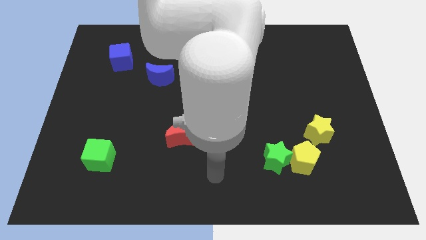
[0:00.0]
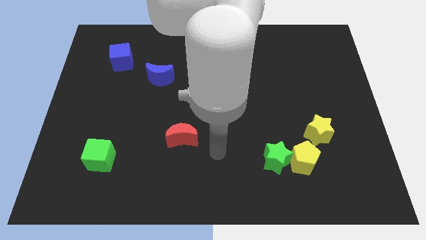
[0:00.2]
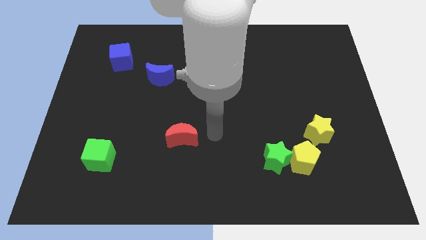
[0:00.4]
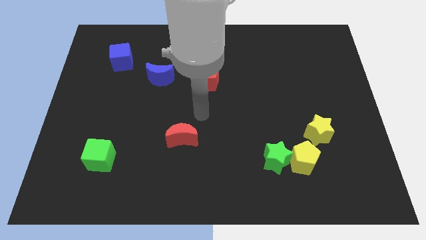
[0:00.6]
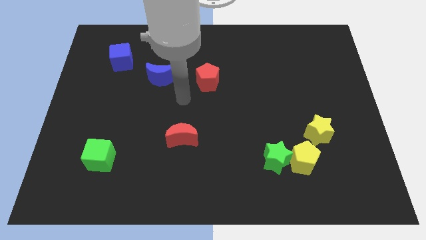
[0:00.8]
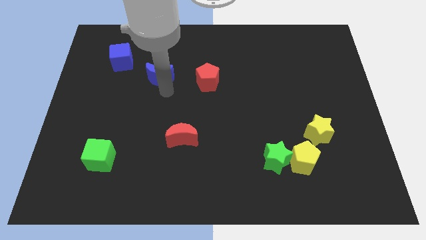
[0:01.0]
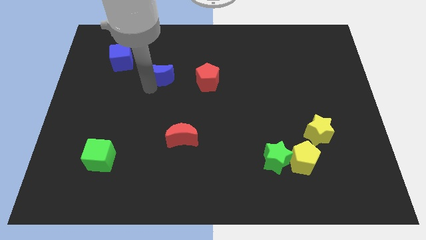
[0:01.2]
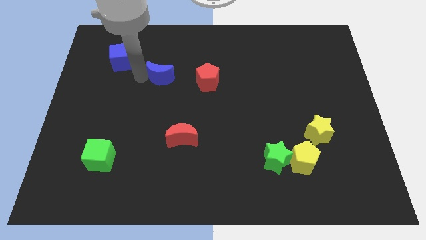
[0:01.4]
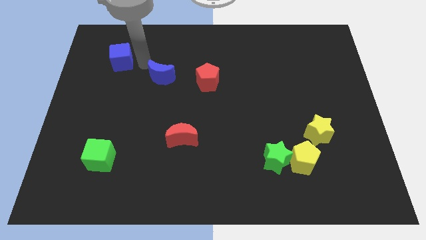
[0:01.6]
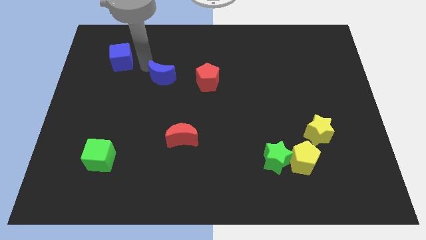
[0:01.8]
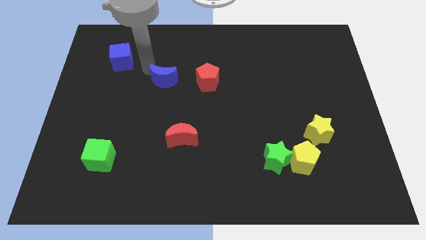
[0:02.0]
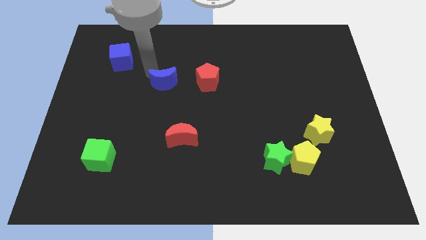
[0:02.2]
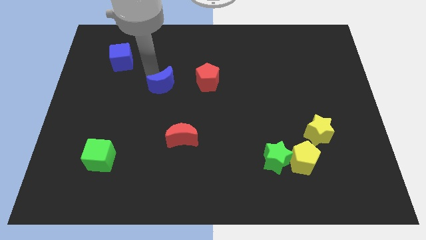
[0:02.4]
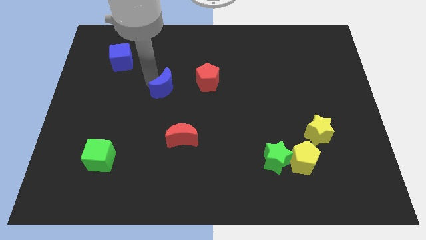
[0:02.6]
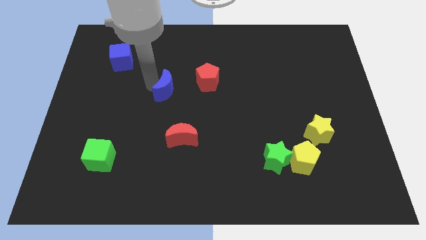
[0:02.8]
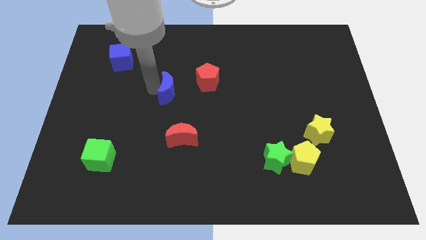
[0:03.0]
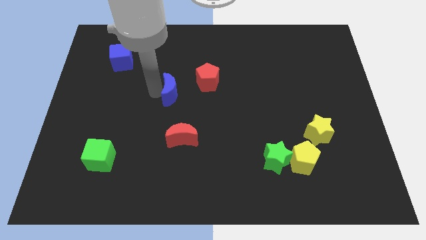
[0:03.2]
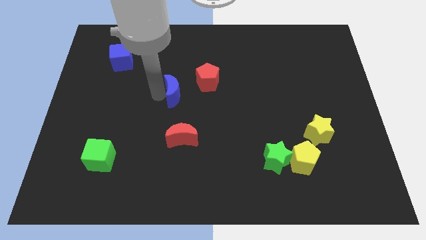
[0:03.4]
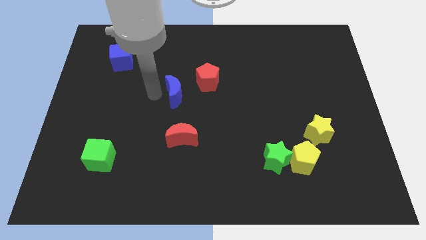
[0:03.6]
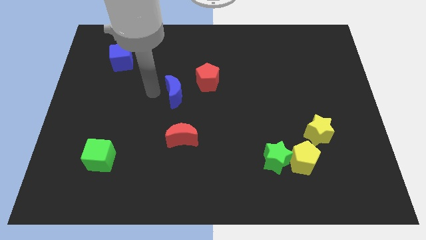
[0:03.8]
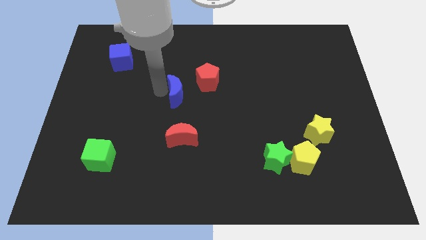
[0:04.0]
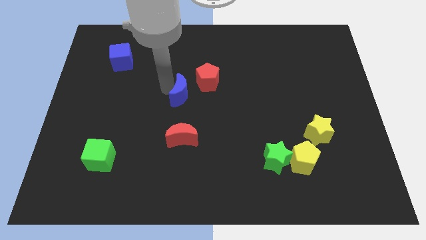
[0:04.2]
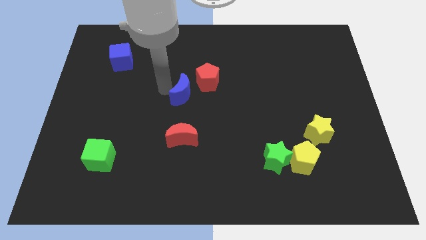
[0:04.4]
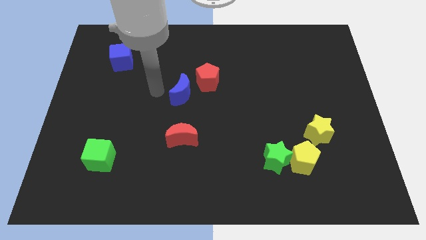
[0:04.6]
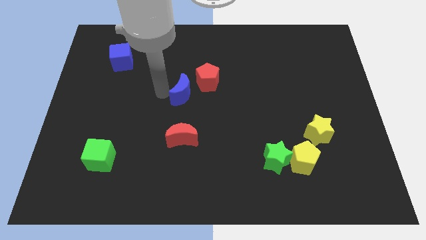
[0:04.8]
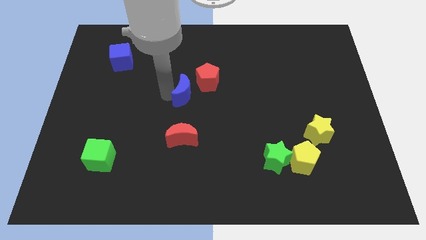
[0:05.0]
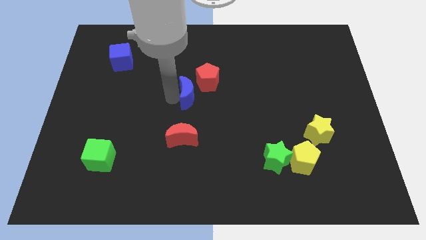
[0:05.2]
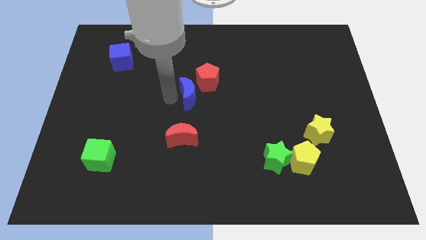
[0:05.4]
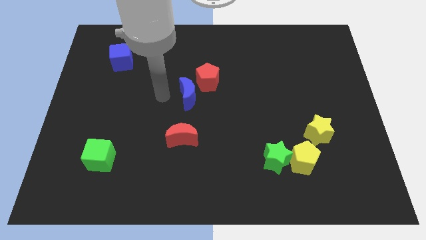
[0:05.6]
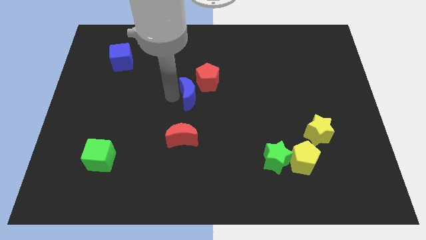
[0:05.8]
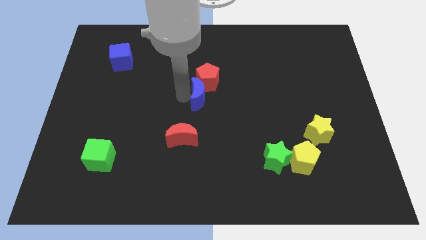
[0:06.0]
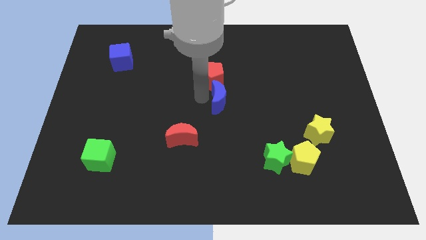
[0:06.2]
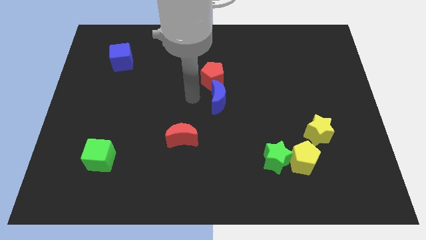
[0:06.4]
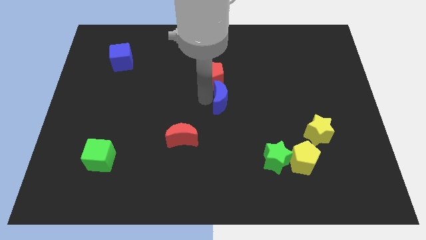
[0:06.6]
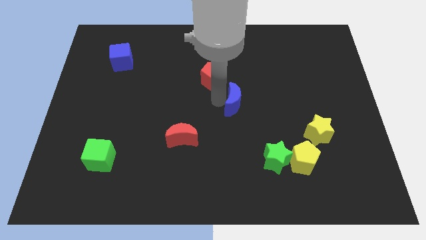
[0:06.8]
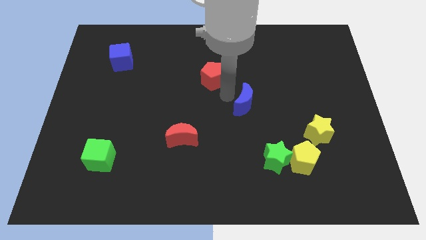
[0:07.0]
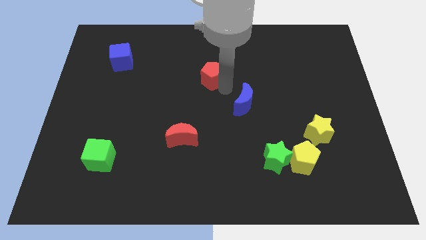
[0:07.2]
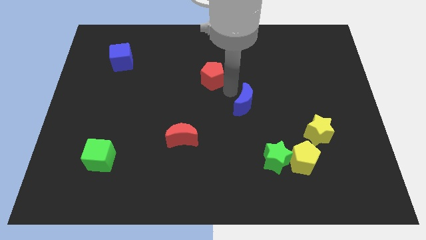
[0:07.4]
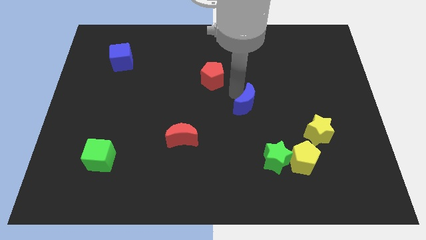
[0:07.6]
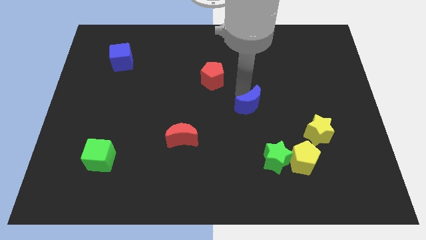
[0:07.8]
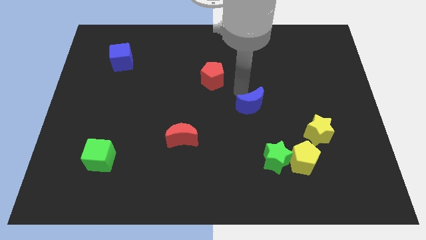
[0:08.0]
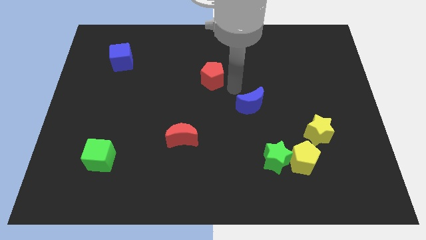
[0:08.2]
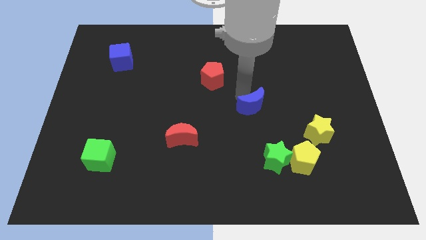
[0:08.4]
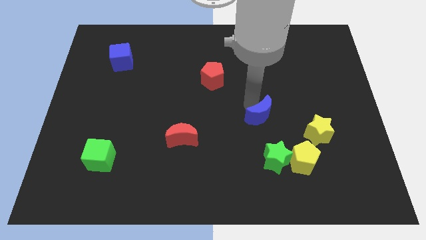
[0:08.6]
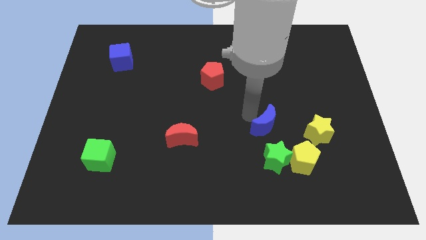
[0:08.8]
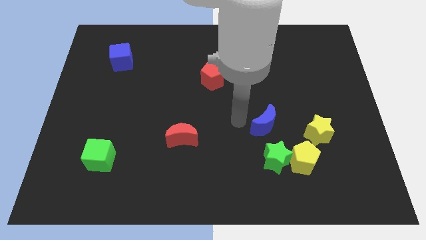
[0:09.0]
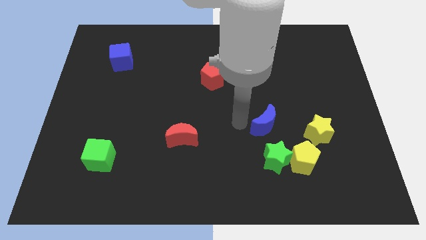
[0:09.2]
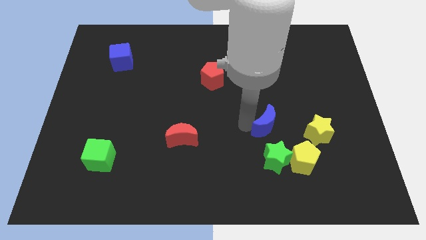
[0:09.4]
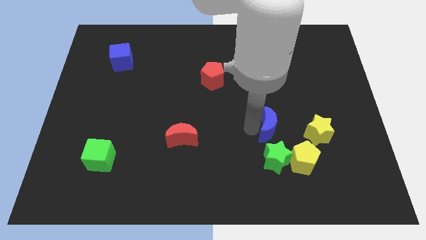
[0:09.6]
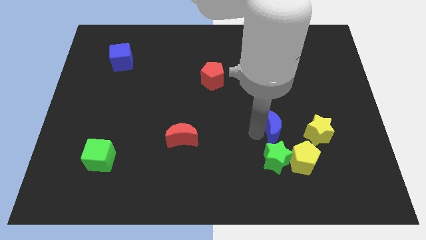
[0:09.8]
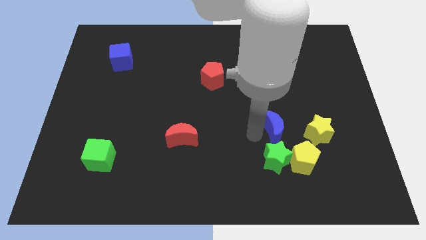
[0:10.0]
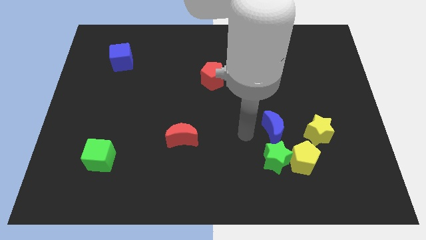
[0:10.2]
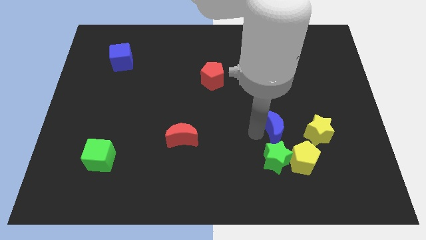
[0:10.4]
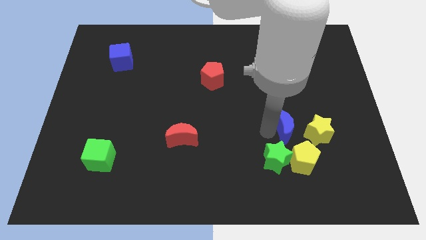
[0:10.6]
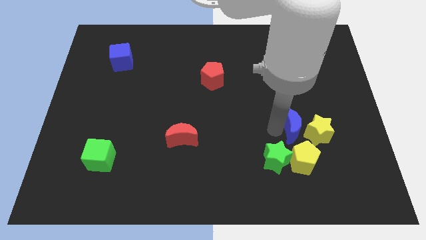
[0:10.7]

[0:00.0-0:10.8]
put the blue moon next to the yellow star

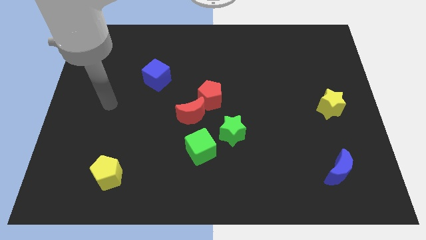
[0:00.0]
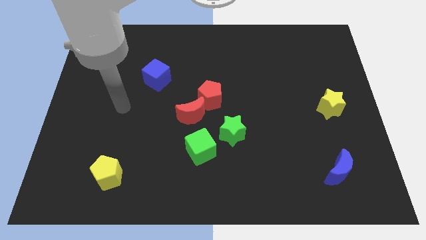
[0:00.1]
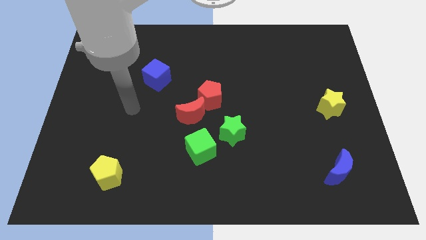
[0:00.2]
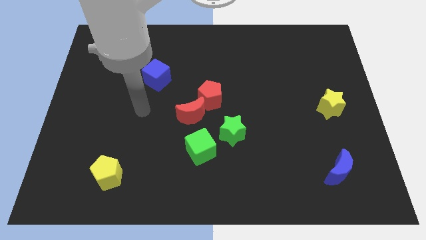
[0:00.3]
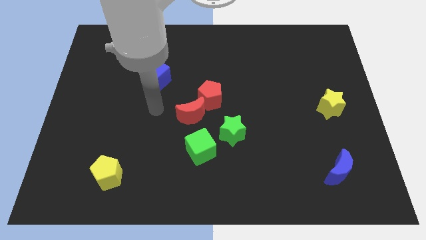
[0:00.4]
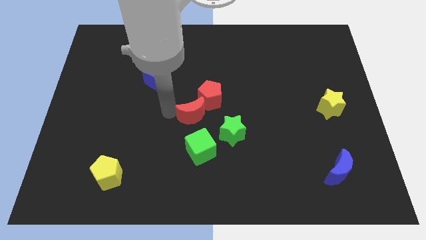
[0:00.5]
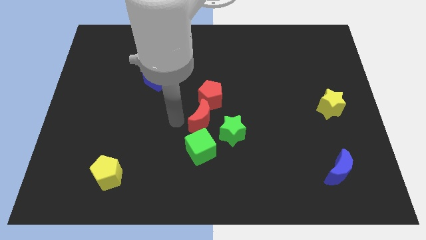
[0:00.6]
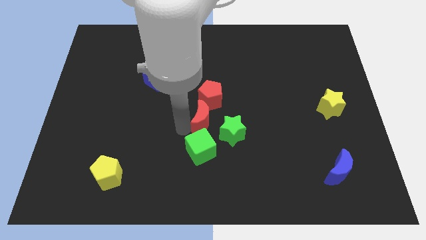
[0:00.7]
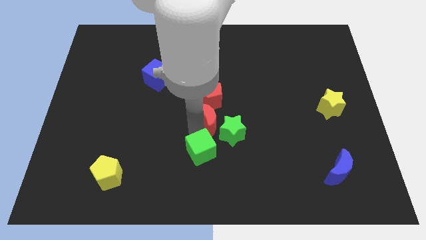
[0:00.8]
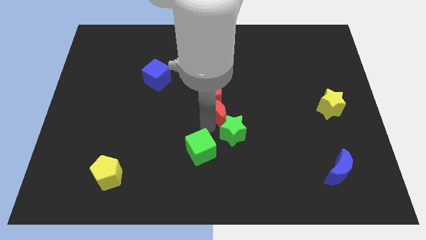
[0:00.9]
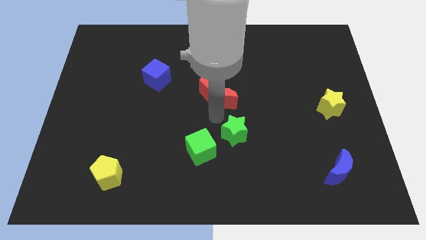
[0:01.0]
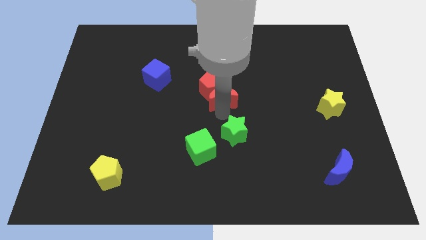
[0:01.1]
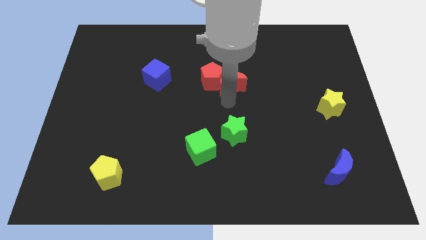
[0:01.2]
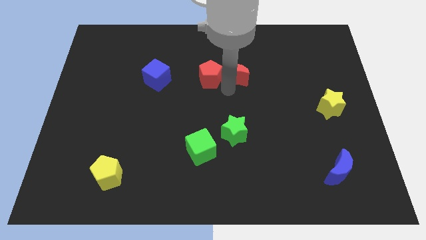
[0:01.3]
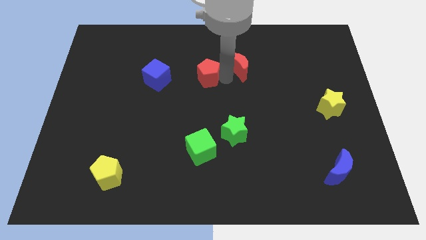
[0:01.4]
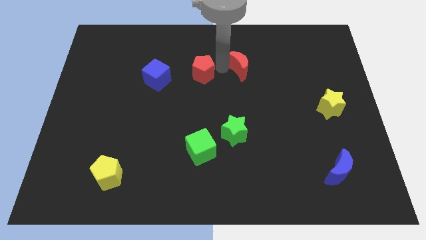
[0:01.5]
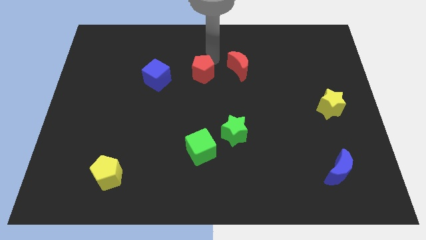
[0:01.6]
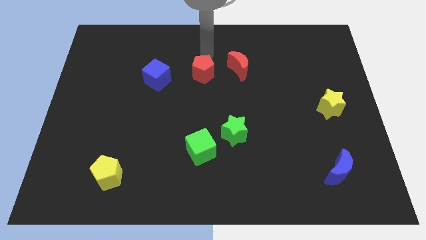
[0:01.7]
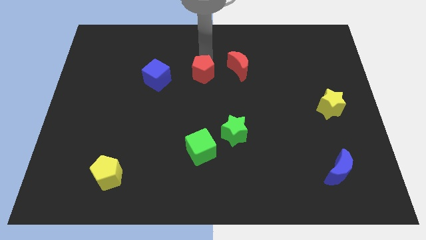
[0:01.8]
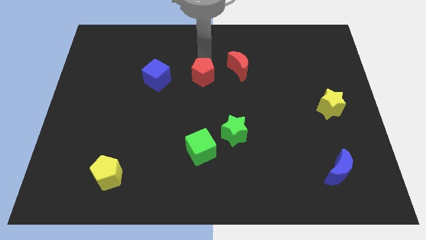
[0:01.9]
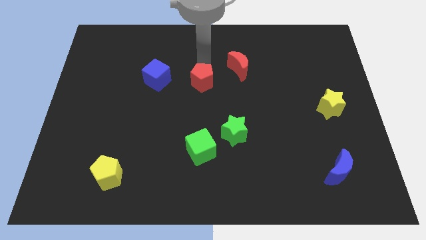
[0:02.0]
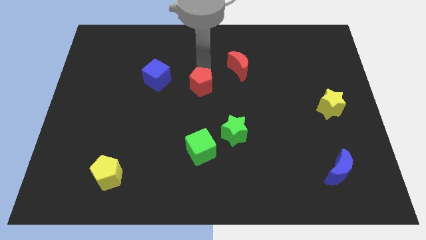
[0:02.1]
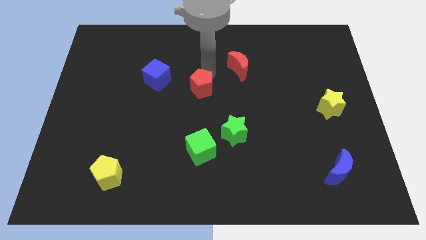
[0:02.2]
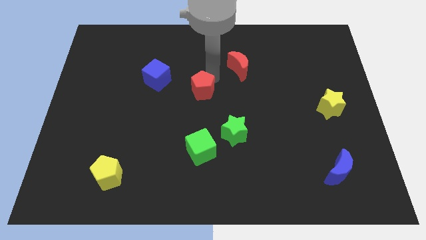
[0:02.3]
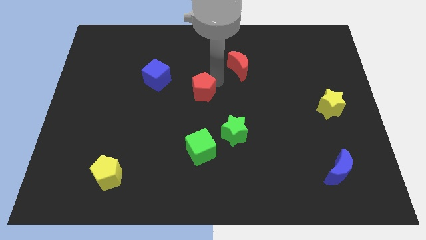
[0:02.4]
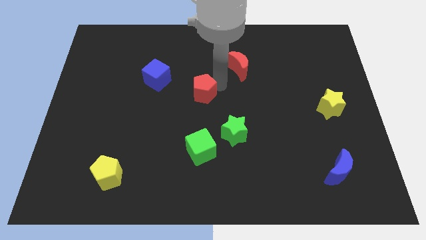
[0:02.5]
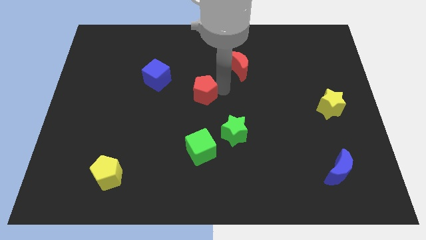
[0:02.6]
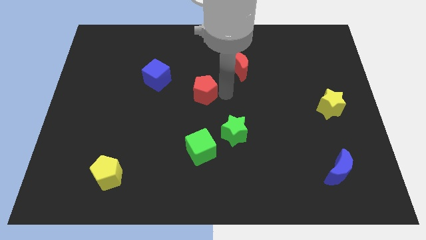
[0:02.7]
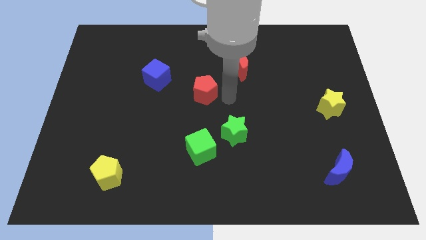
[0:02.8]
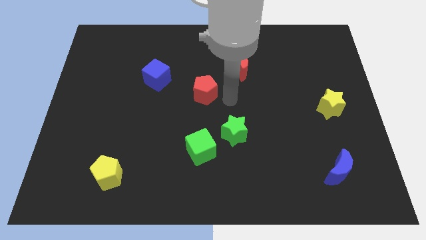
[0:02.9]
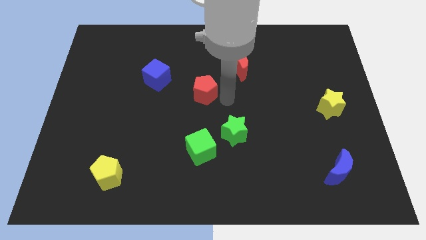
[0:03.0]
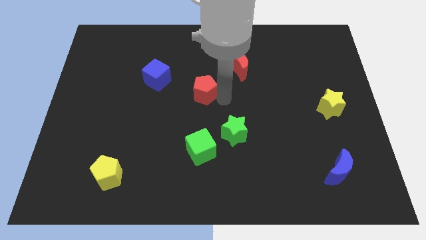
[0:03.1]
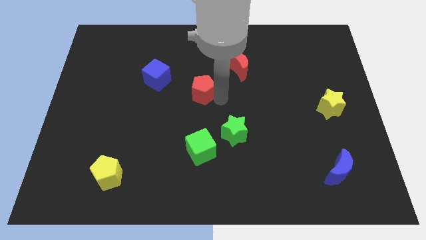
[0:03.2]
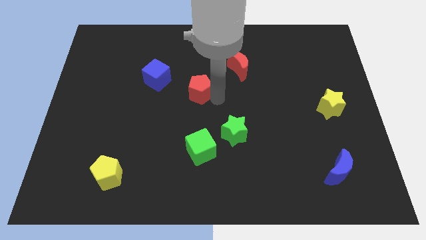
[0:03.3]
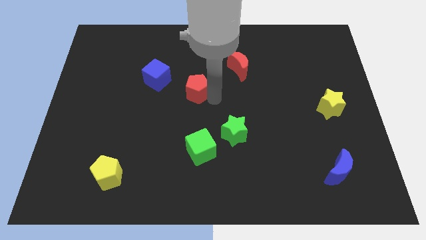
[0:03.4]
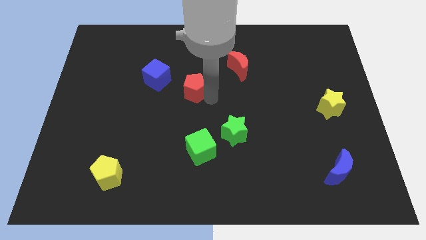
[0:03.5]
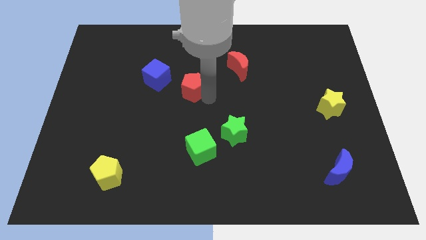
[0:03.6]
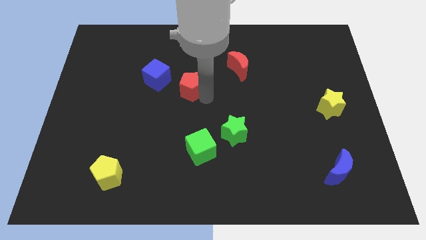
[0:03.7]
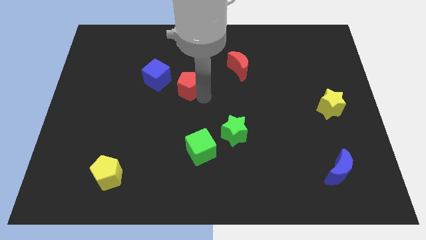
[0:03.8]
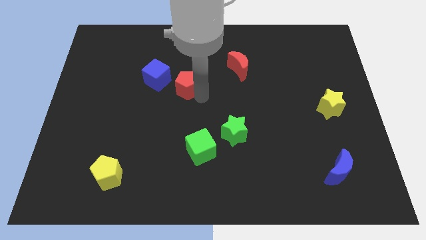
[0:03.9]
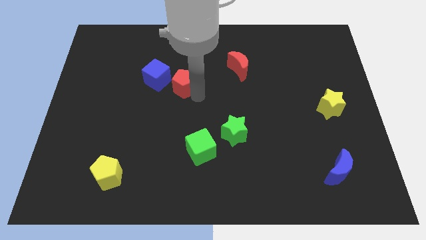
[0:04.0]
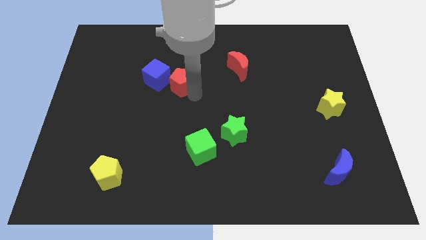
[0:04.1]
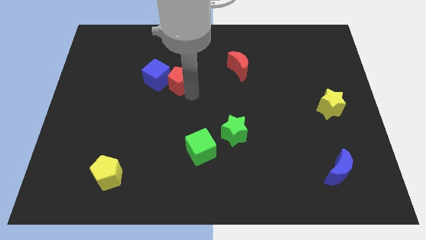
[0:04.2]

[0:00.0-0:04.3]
move the red pentagon next to the blue cube
